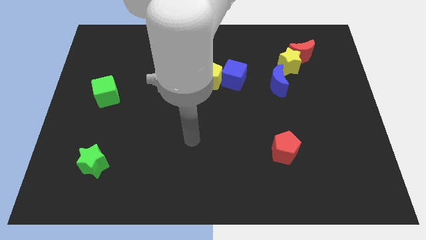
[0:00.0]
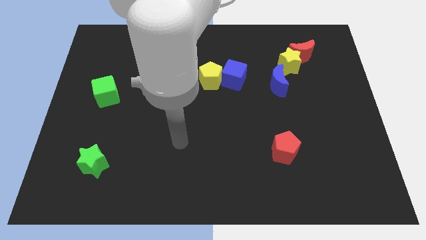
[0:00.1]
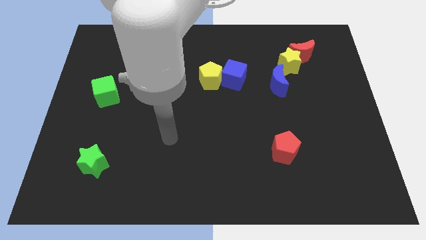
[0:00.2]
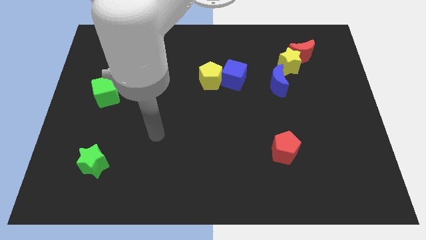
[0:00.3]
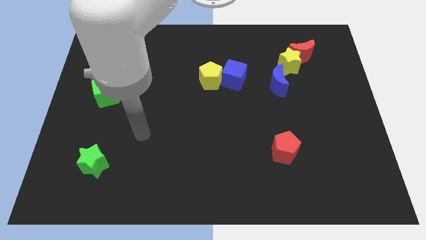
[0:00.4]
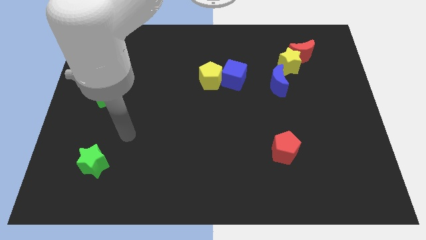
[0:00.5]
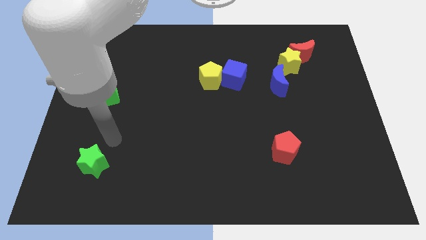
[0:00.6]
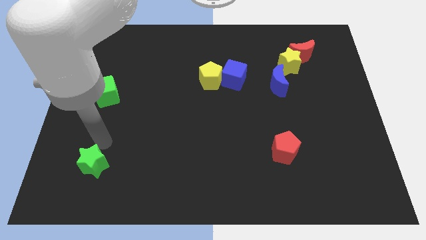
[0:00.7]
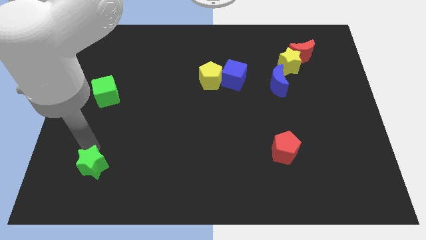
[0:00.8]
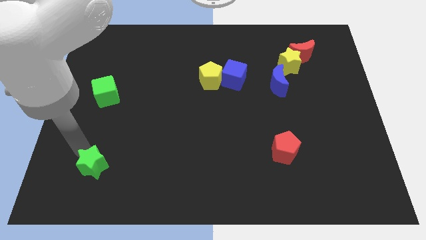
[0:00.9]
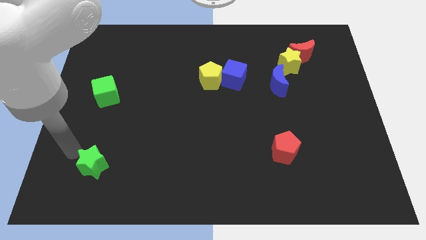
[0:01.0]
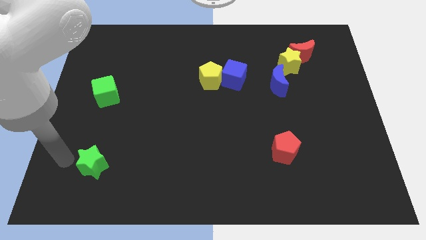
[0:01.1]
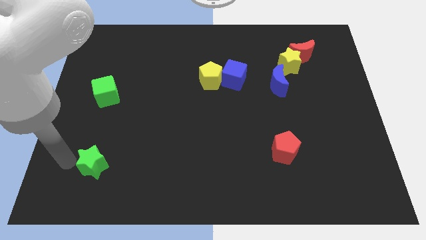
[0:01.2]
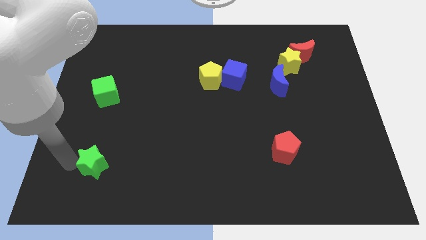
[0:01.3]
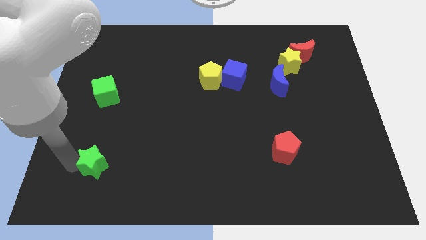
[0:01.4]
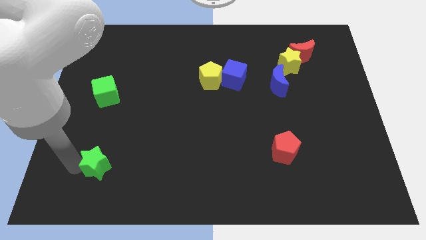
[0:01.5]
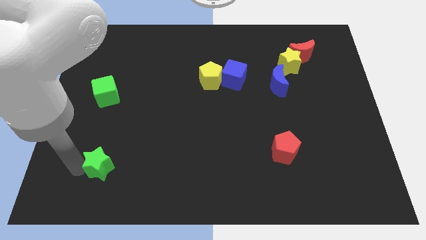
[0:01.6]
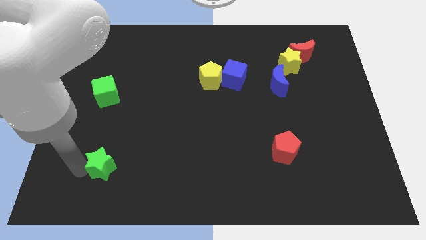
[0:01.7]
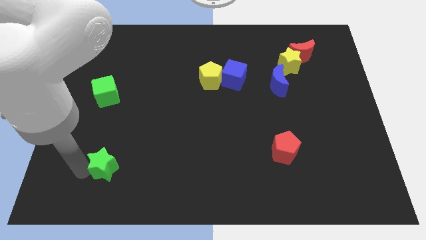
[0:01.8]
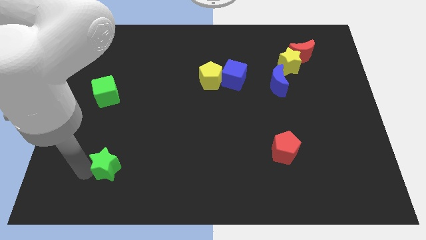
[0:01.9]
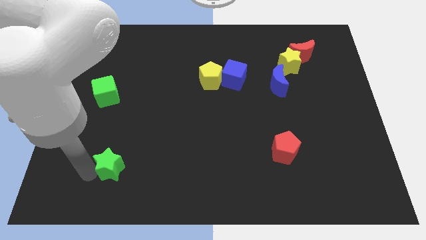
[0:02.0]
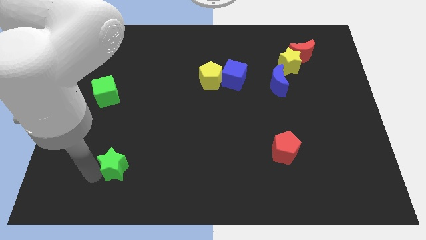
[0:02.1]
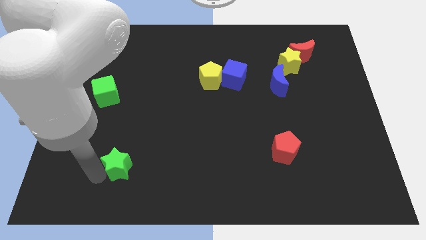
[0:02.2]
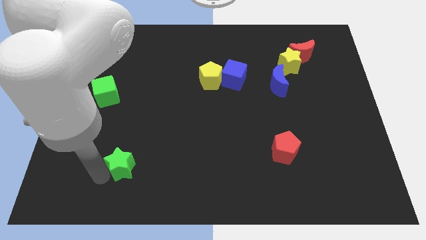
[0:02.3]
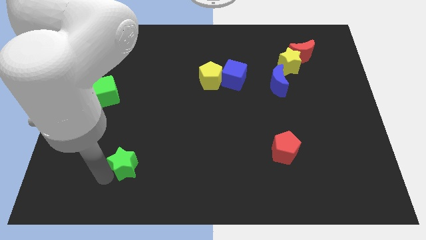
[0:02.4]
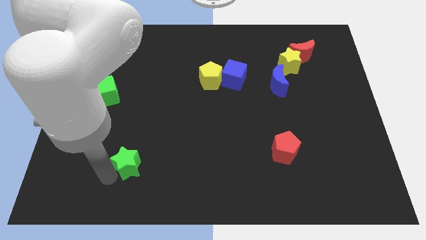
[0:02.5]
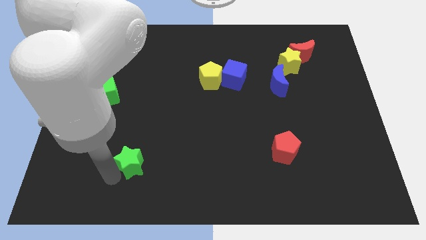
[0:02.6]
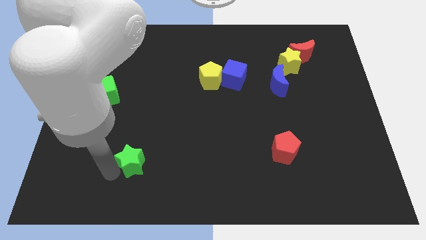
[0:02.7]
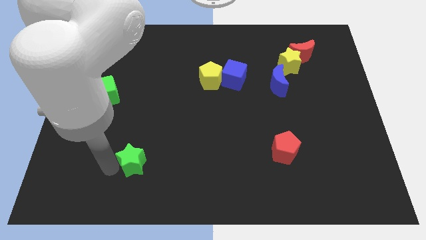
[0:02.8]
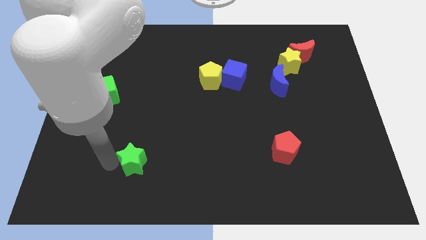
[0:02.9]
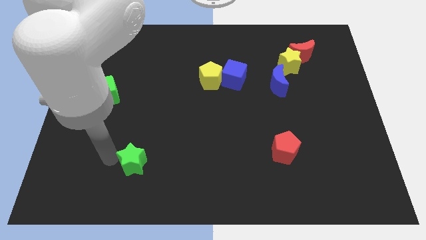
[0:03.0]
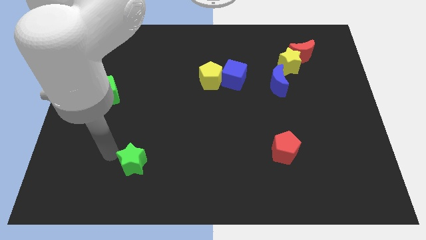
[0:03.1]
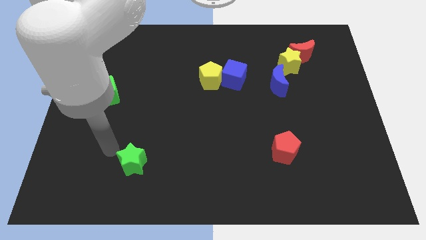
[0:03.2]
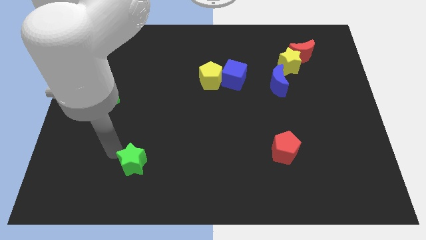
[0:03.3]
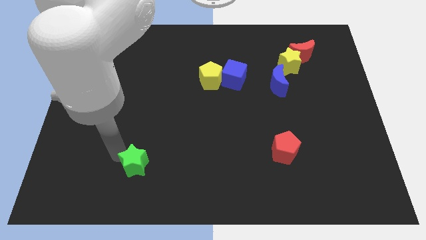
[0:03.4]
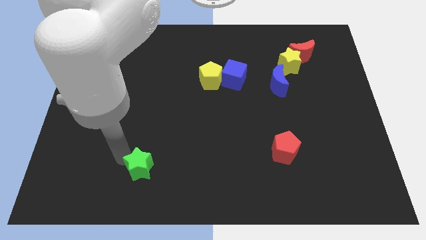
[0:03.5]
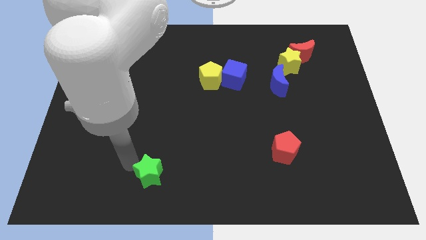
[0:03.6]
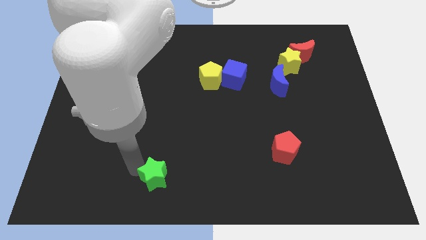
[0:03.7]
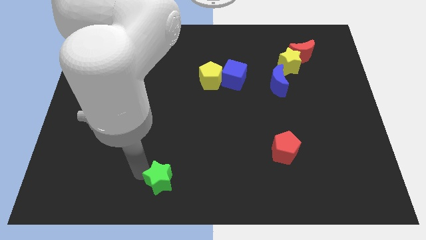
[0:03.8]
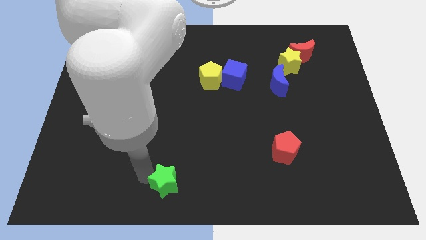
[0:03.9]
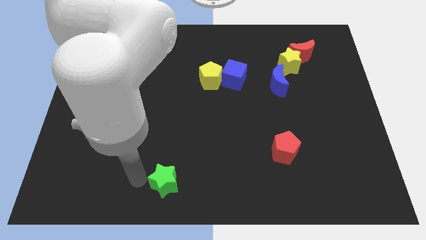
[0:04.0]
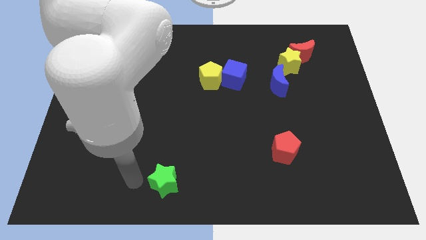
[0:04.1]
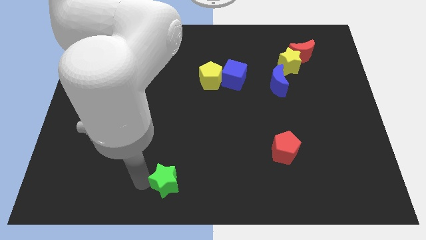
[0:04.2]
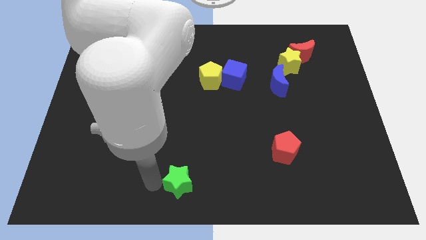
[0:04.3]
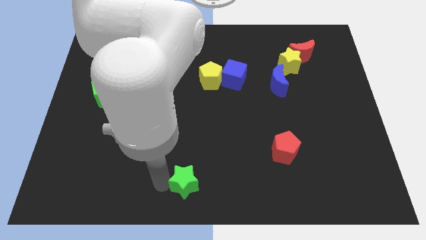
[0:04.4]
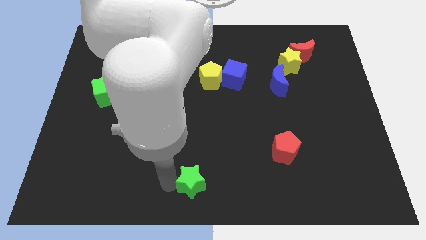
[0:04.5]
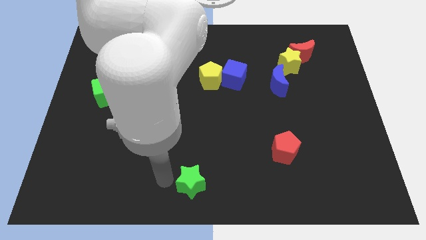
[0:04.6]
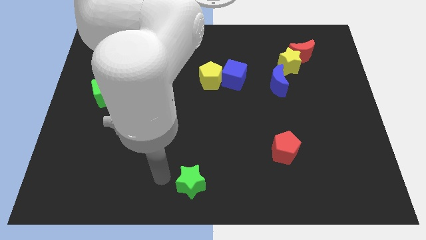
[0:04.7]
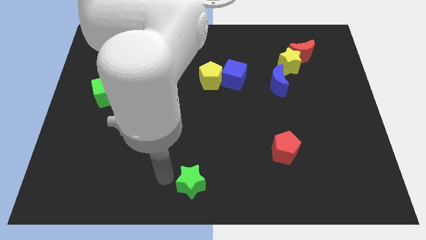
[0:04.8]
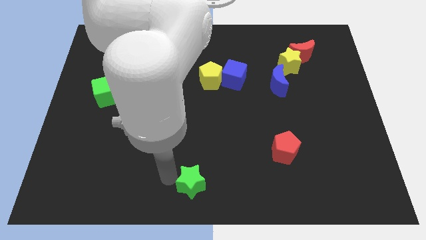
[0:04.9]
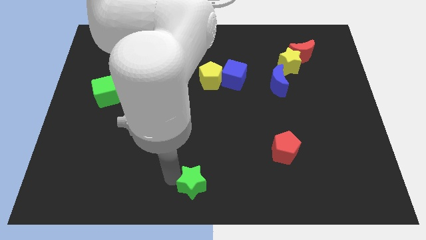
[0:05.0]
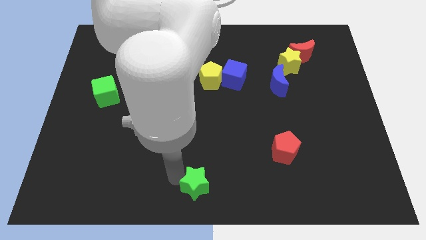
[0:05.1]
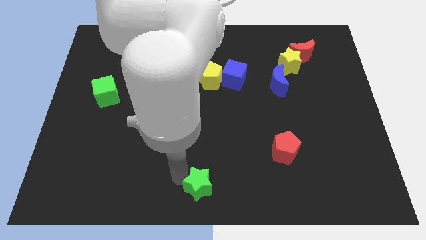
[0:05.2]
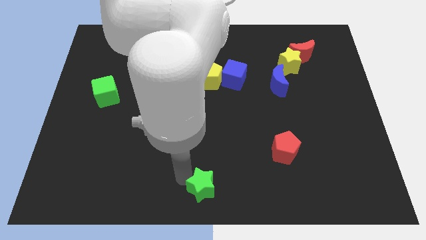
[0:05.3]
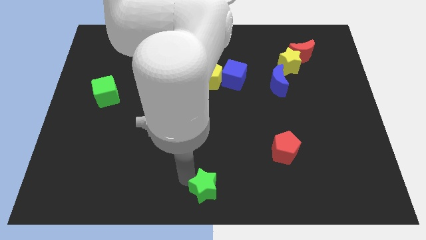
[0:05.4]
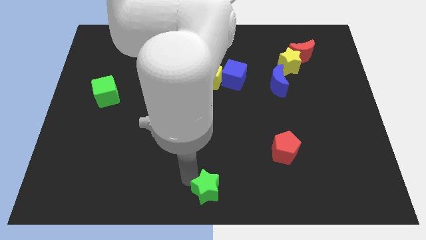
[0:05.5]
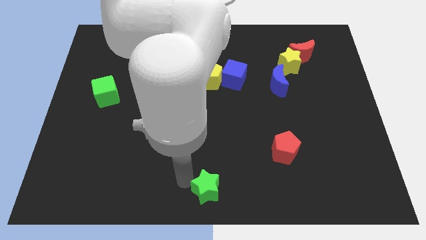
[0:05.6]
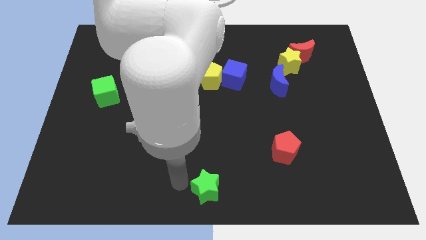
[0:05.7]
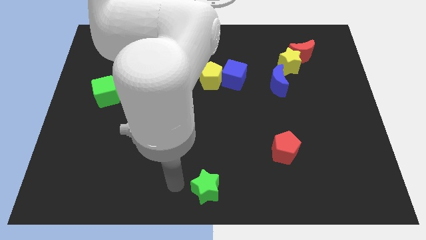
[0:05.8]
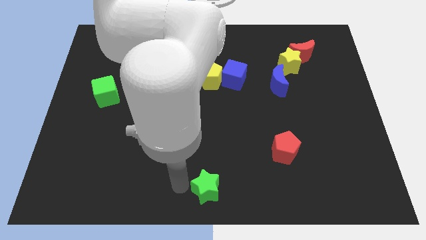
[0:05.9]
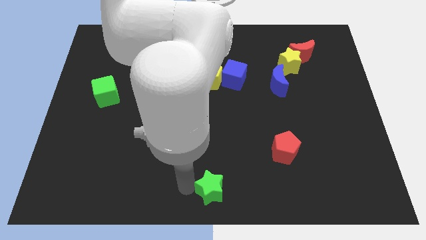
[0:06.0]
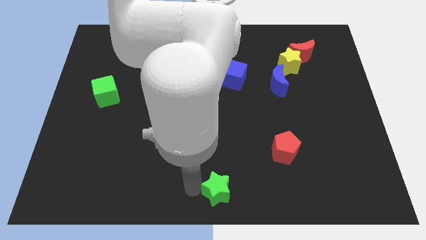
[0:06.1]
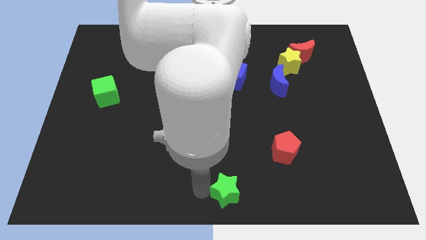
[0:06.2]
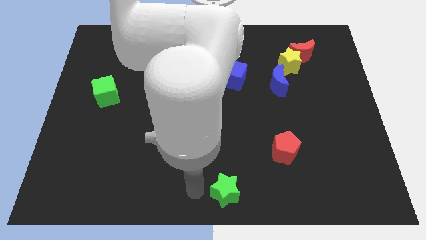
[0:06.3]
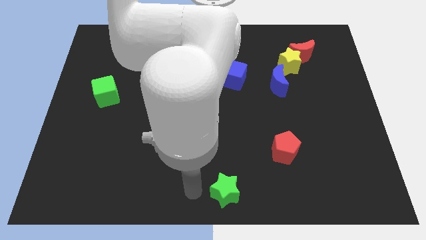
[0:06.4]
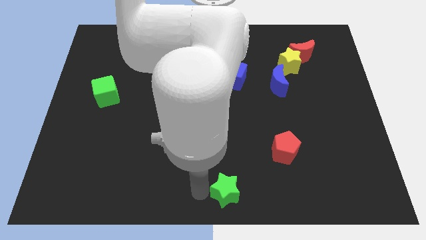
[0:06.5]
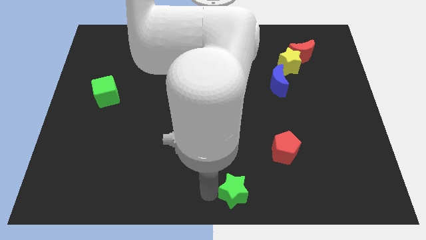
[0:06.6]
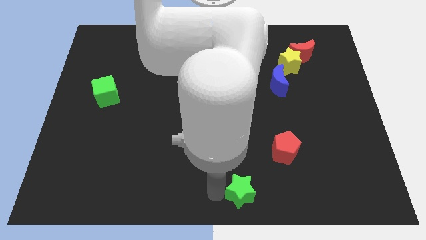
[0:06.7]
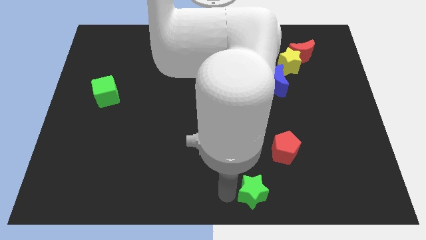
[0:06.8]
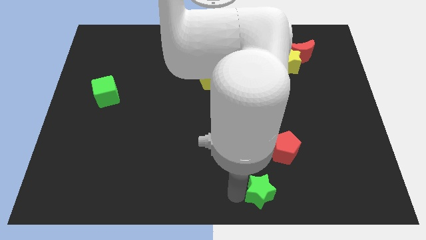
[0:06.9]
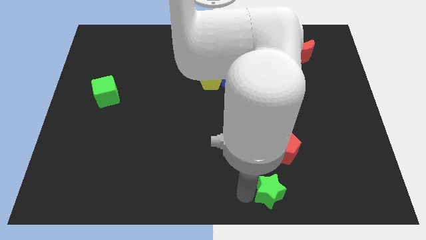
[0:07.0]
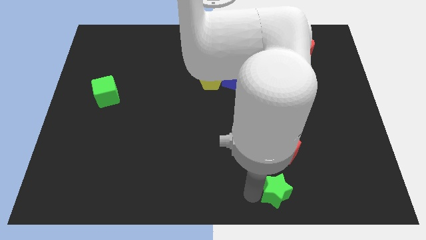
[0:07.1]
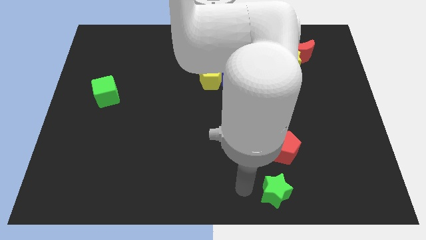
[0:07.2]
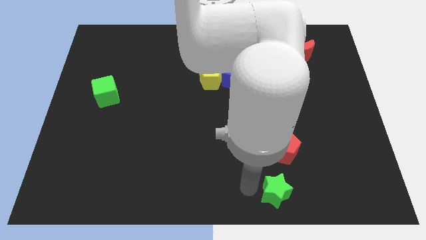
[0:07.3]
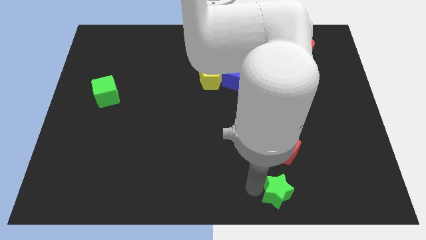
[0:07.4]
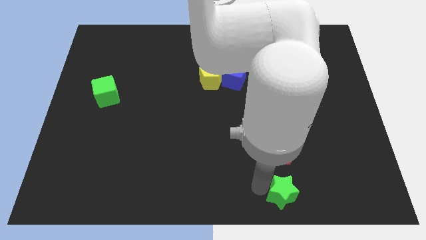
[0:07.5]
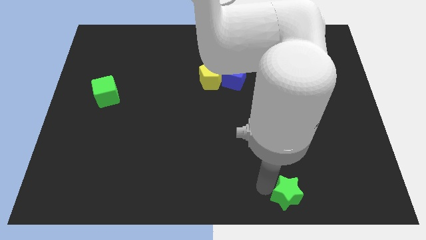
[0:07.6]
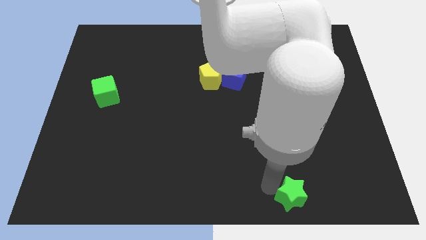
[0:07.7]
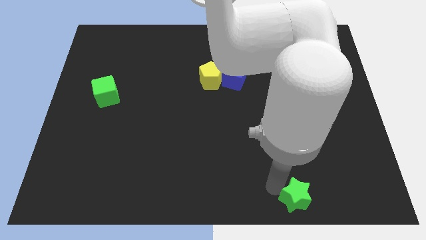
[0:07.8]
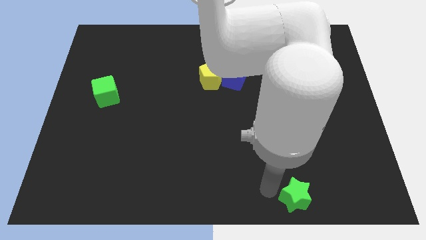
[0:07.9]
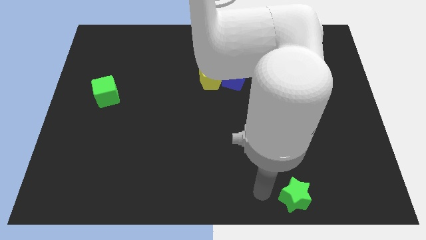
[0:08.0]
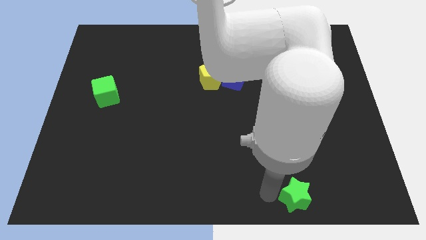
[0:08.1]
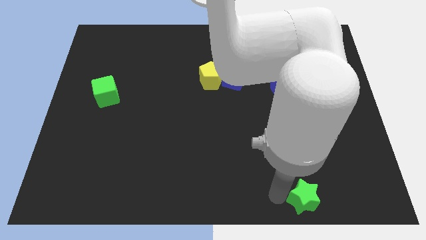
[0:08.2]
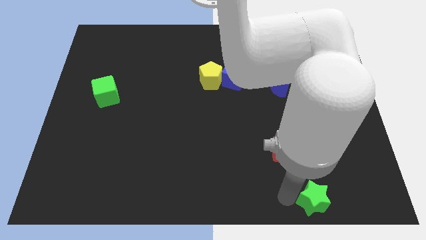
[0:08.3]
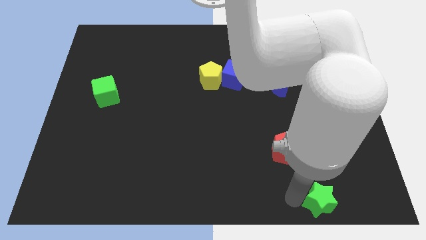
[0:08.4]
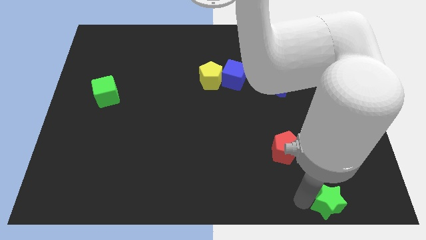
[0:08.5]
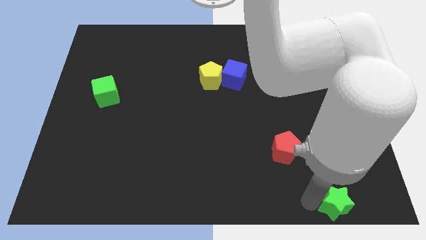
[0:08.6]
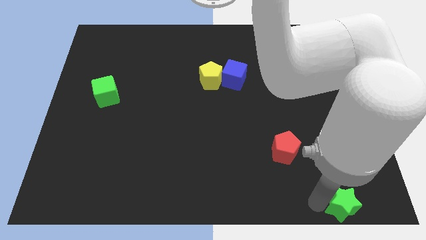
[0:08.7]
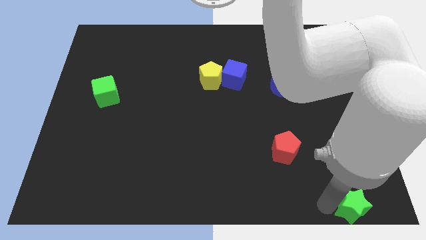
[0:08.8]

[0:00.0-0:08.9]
move the green star to the bottom right corner
